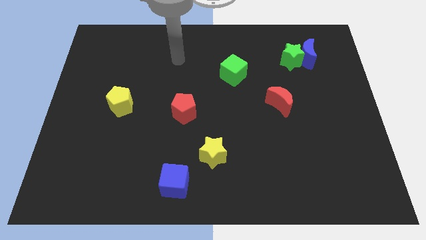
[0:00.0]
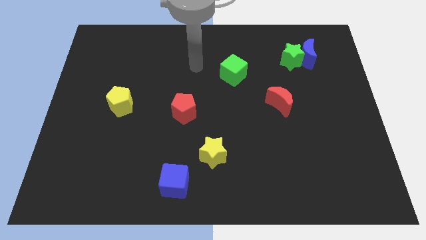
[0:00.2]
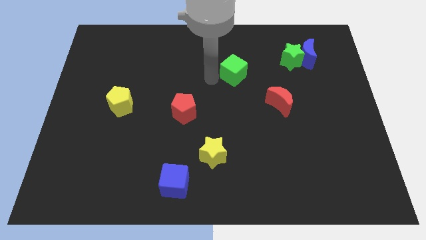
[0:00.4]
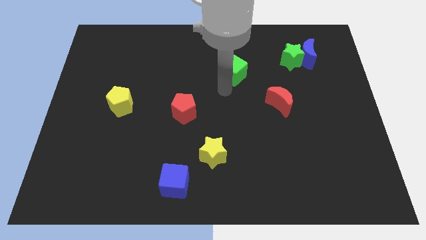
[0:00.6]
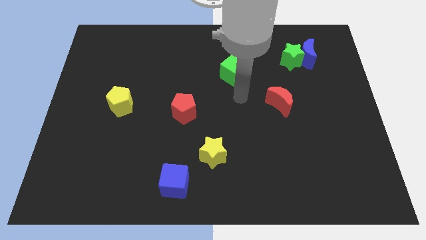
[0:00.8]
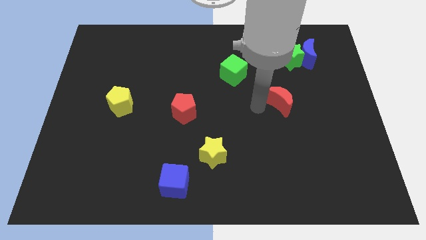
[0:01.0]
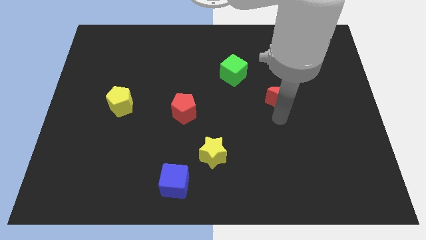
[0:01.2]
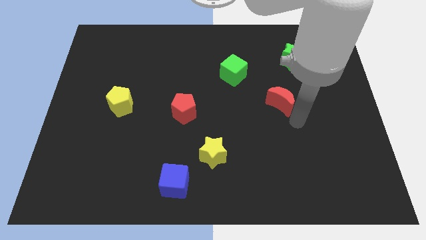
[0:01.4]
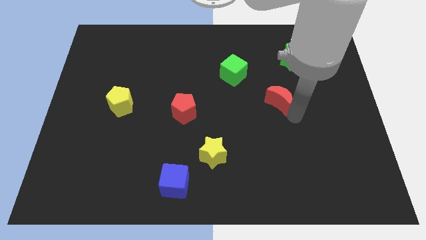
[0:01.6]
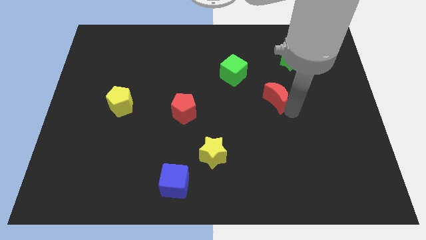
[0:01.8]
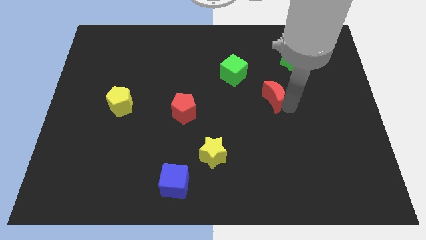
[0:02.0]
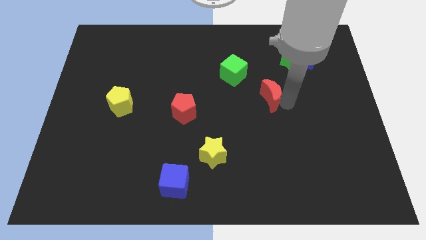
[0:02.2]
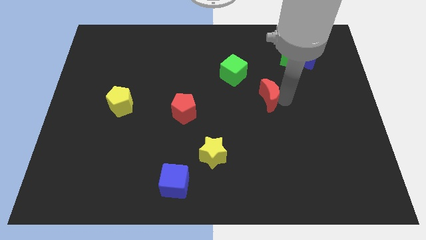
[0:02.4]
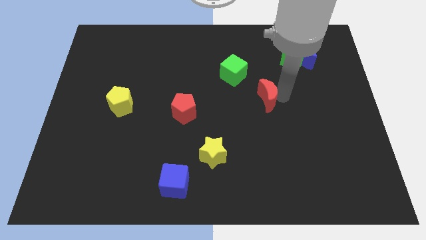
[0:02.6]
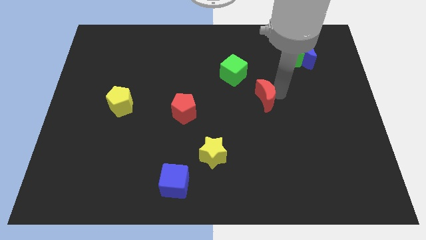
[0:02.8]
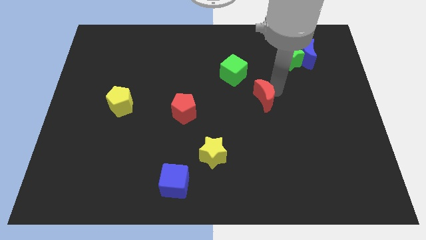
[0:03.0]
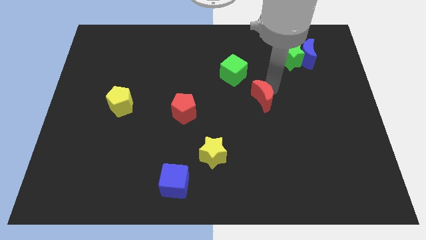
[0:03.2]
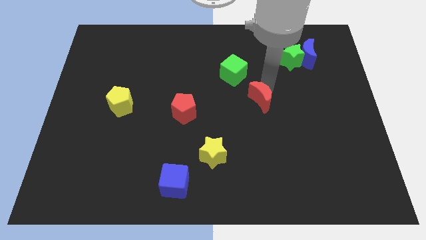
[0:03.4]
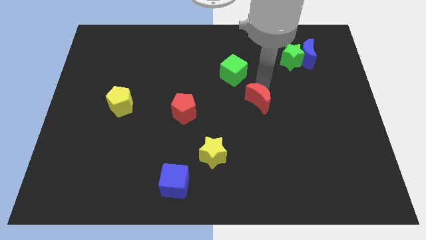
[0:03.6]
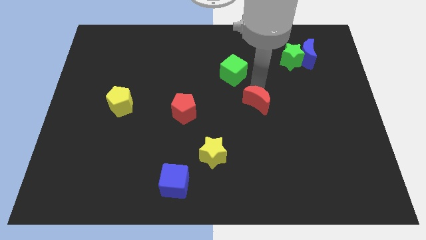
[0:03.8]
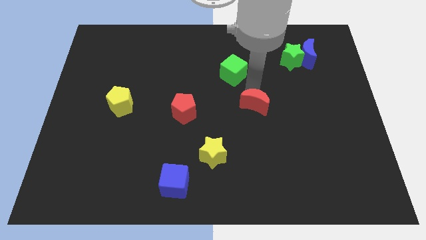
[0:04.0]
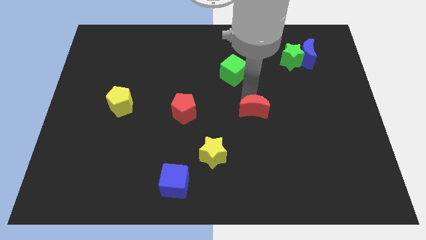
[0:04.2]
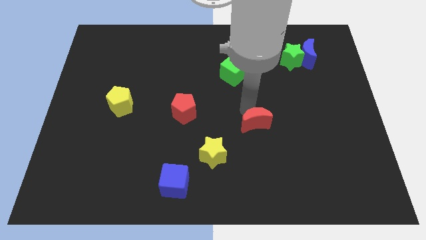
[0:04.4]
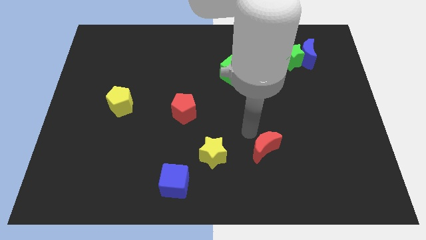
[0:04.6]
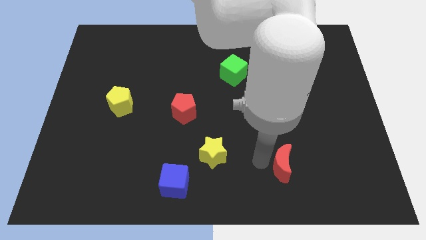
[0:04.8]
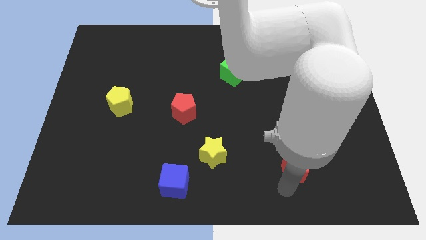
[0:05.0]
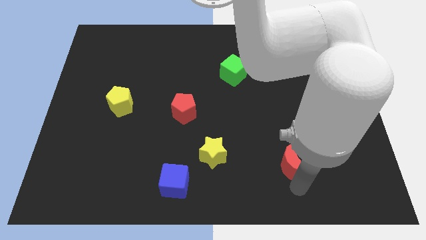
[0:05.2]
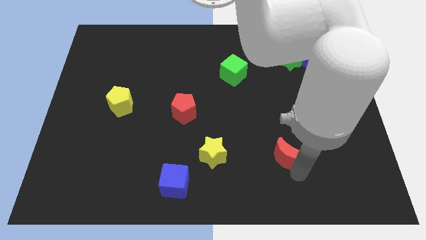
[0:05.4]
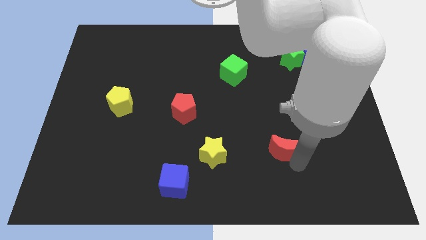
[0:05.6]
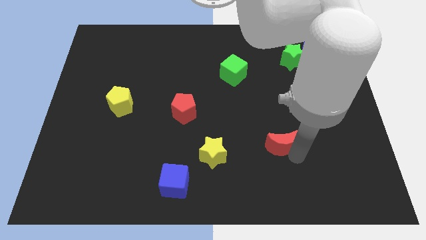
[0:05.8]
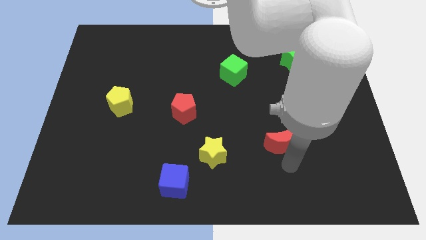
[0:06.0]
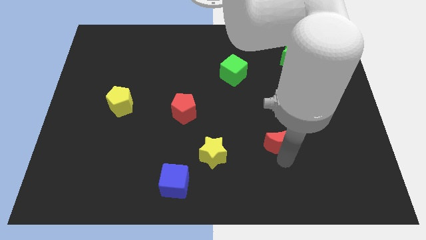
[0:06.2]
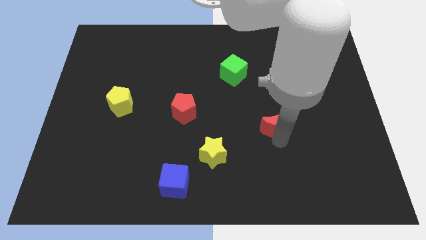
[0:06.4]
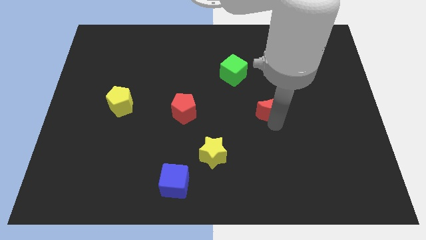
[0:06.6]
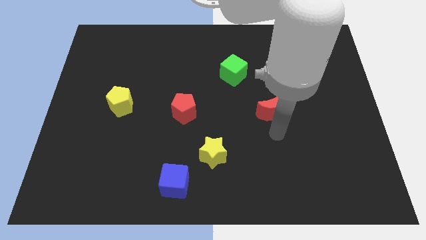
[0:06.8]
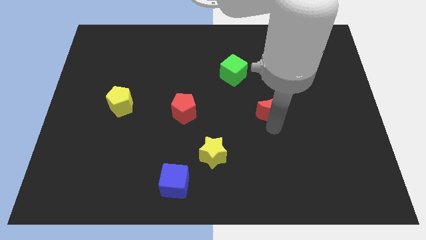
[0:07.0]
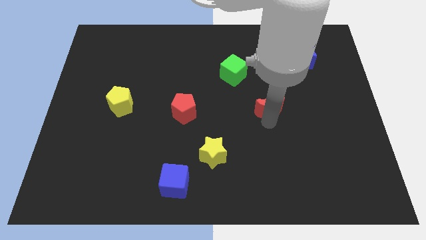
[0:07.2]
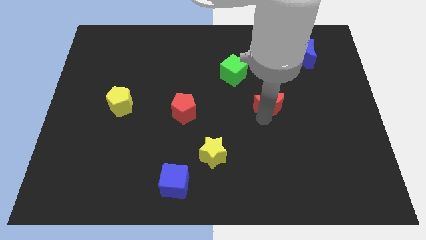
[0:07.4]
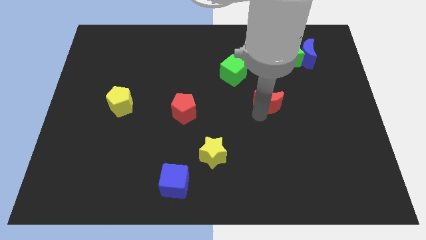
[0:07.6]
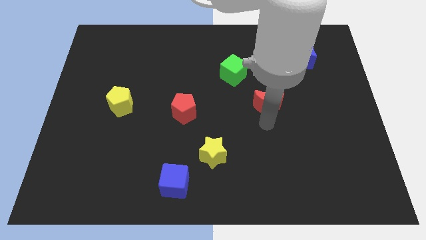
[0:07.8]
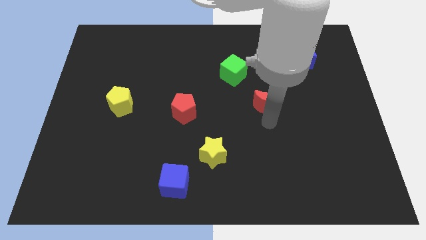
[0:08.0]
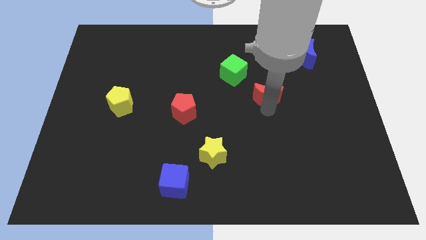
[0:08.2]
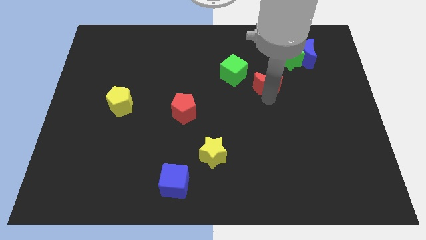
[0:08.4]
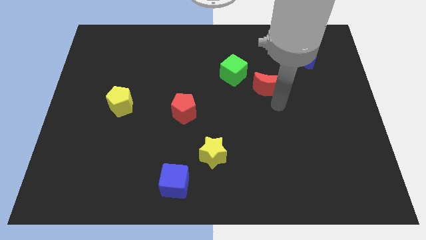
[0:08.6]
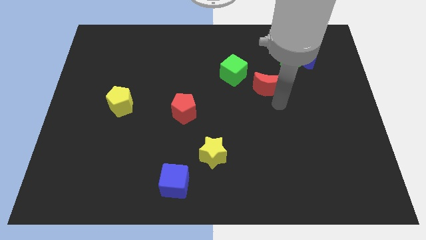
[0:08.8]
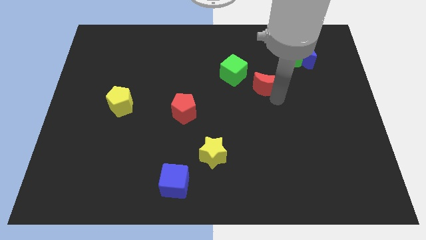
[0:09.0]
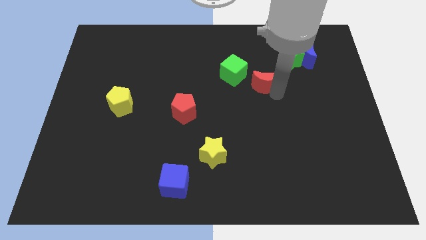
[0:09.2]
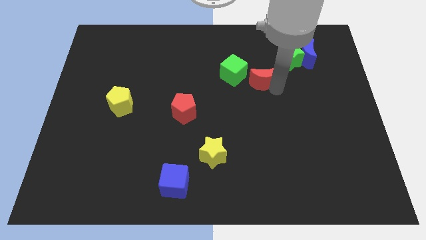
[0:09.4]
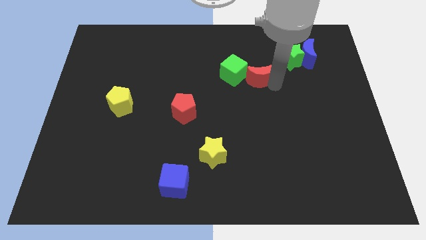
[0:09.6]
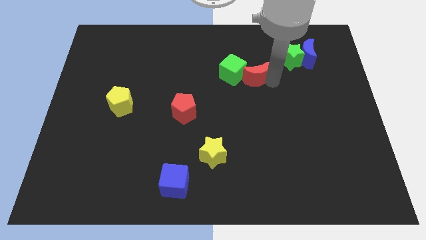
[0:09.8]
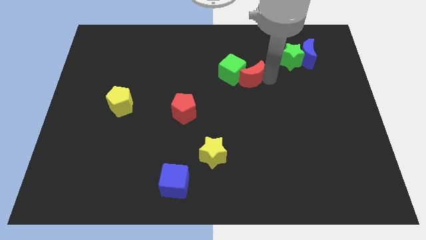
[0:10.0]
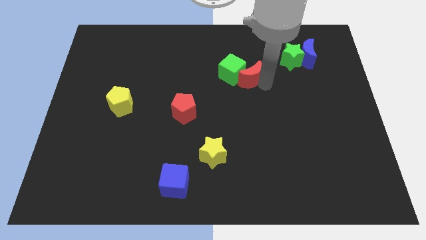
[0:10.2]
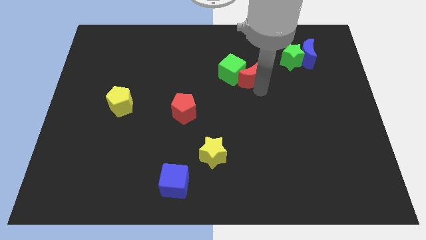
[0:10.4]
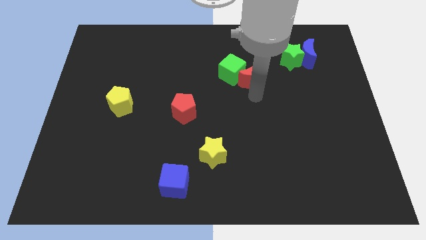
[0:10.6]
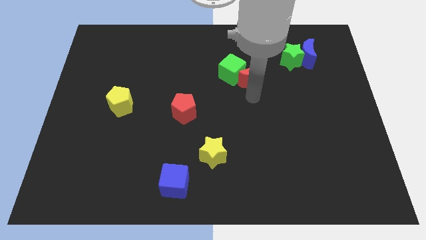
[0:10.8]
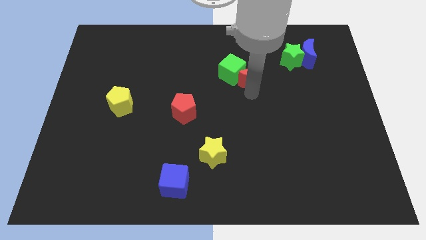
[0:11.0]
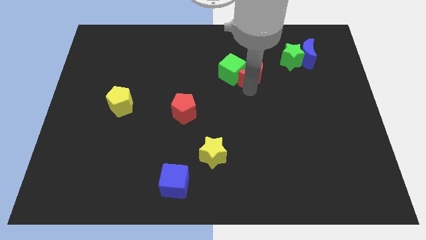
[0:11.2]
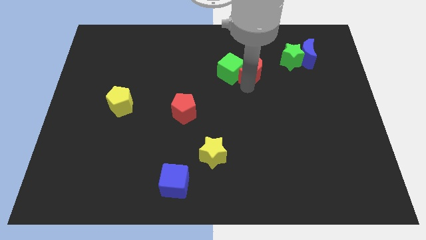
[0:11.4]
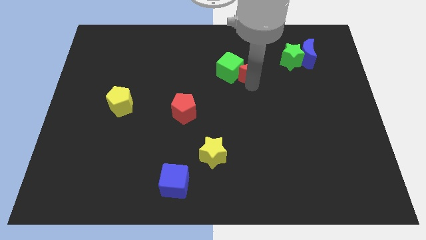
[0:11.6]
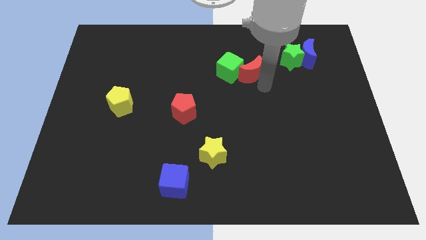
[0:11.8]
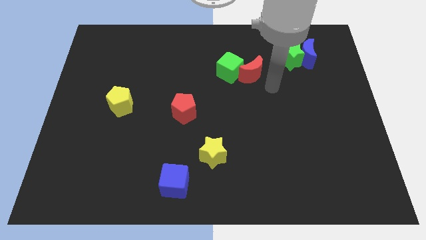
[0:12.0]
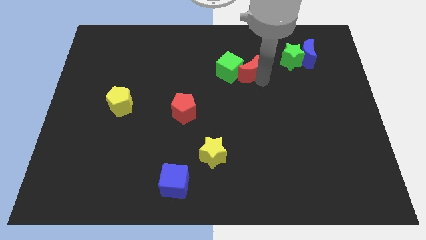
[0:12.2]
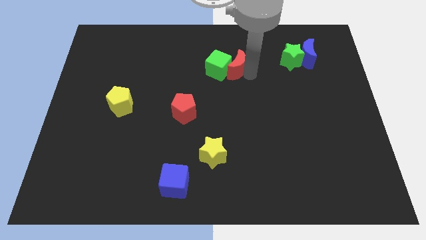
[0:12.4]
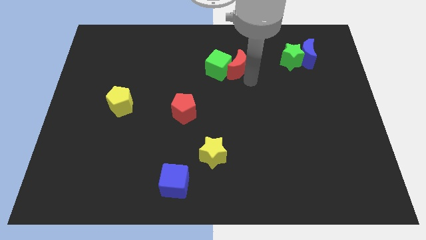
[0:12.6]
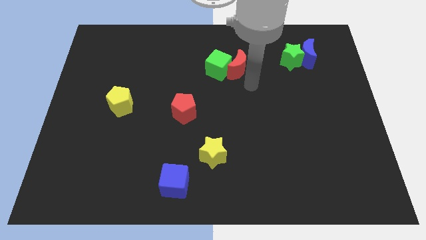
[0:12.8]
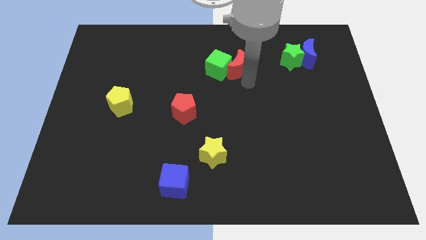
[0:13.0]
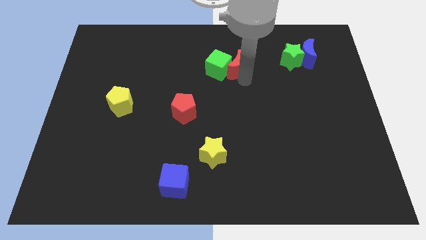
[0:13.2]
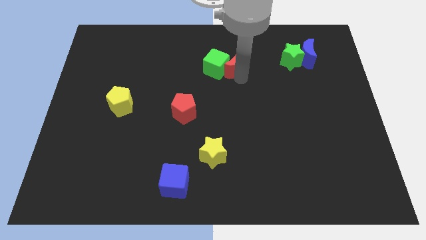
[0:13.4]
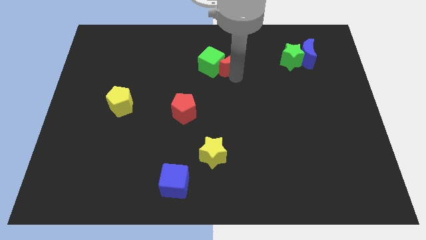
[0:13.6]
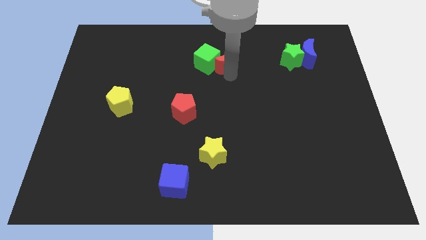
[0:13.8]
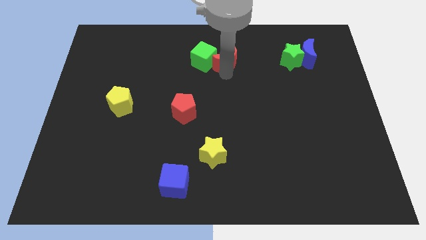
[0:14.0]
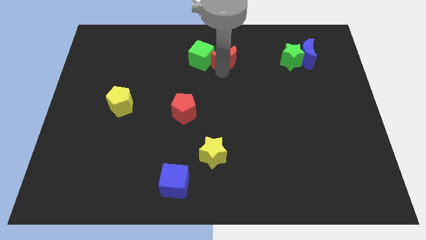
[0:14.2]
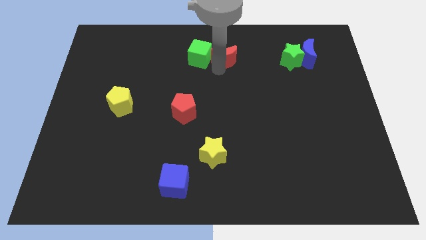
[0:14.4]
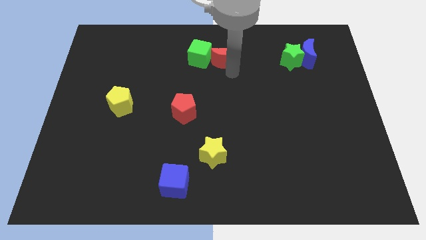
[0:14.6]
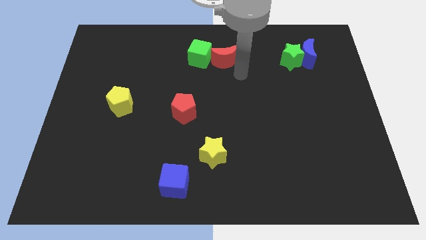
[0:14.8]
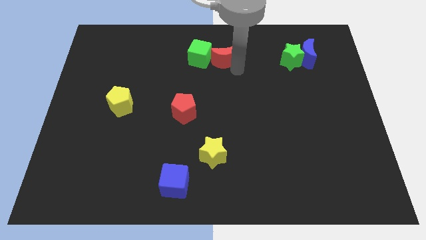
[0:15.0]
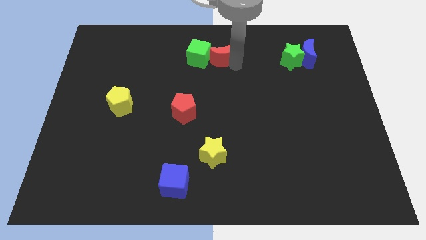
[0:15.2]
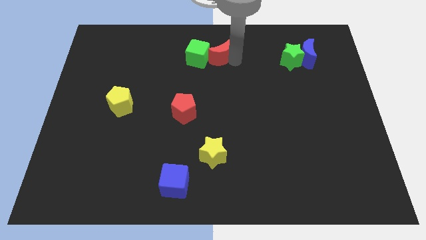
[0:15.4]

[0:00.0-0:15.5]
slide the red moon to the top
